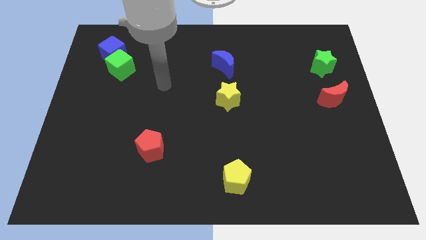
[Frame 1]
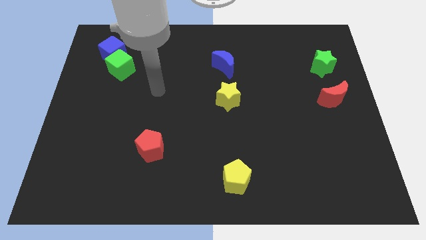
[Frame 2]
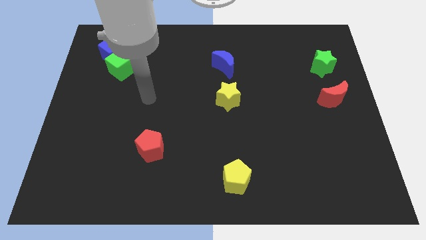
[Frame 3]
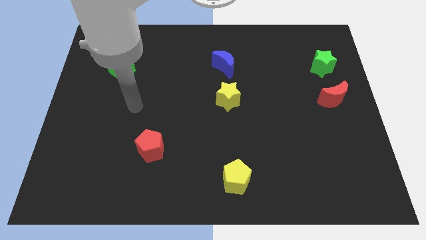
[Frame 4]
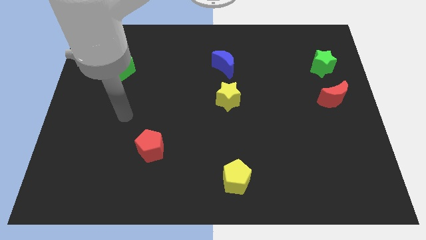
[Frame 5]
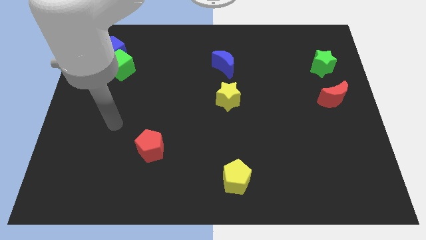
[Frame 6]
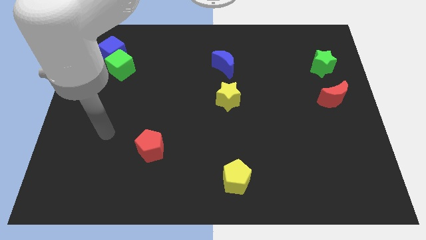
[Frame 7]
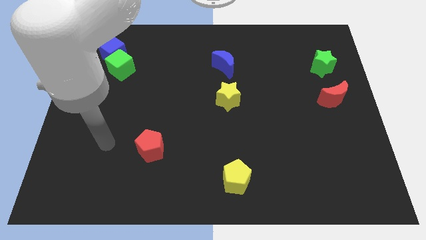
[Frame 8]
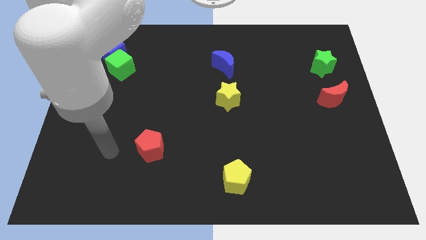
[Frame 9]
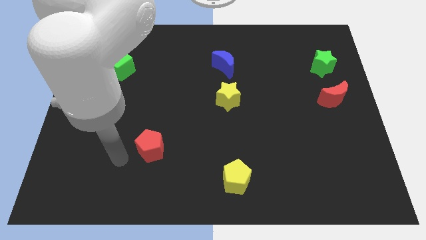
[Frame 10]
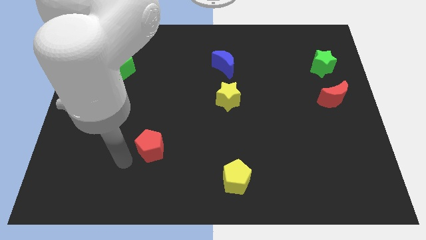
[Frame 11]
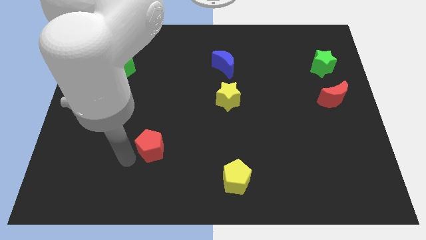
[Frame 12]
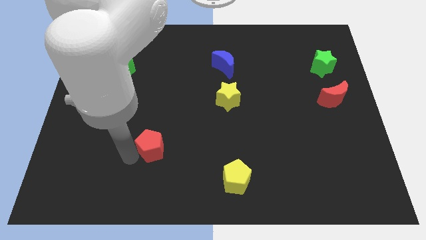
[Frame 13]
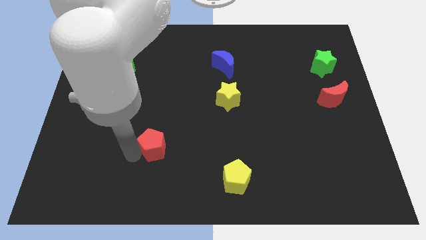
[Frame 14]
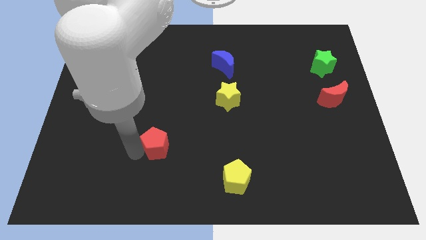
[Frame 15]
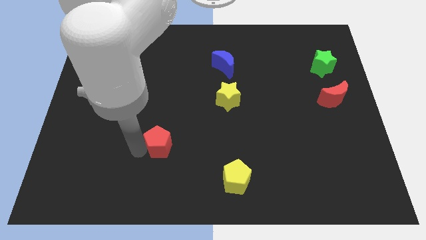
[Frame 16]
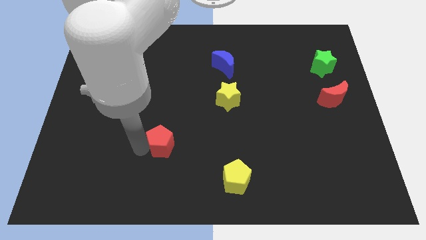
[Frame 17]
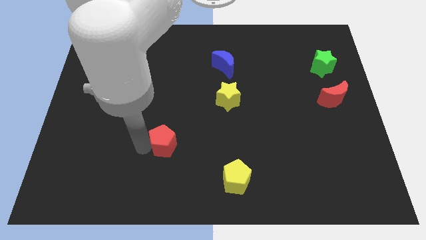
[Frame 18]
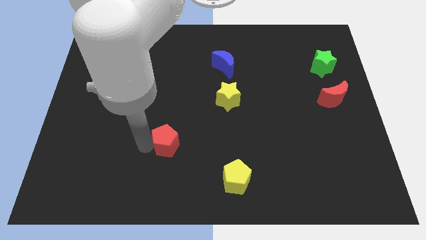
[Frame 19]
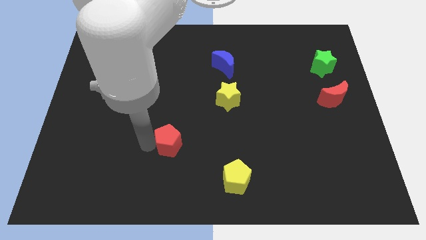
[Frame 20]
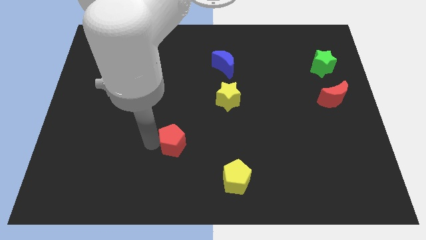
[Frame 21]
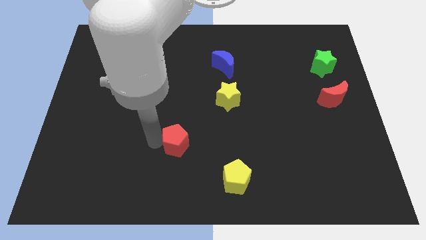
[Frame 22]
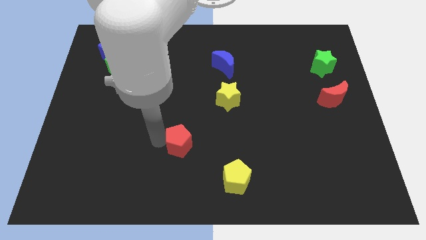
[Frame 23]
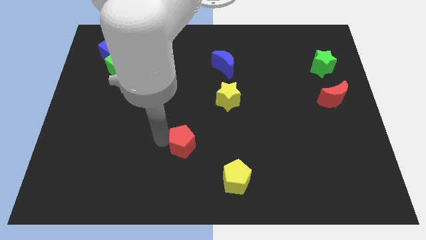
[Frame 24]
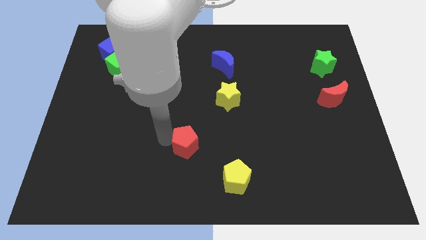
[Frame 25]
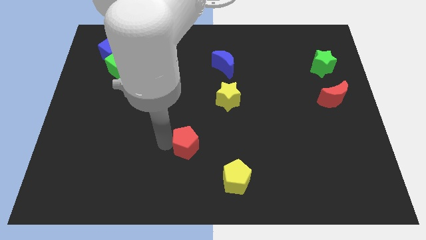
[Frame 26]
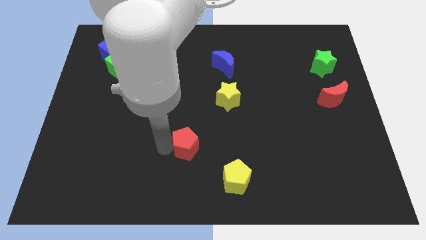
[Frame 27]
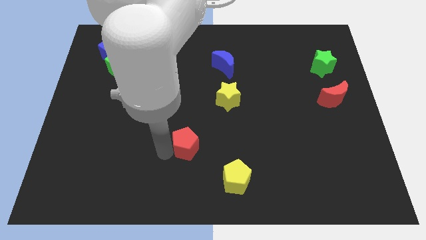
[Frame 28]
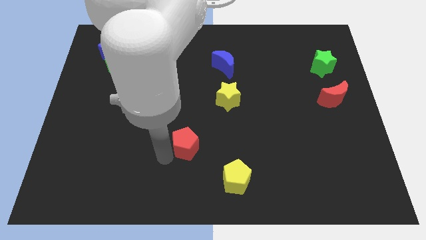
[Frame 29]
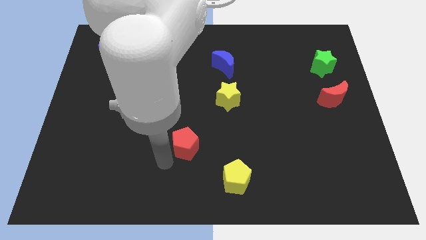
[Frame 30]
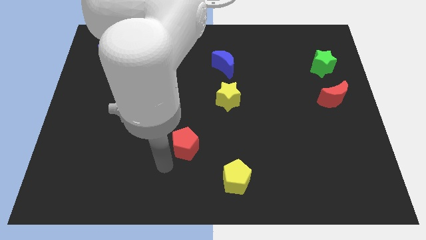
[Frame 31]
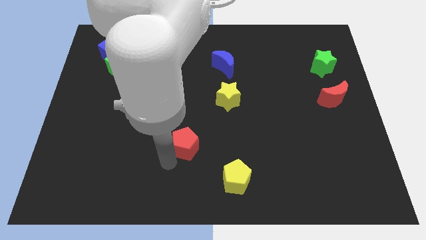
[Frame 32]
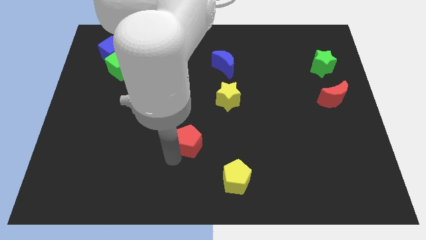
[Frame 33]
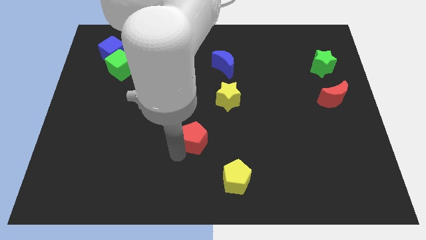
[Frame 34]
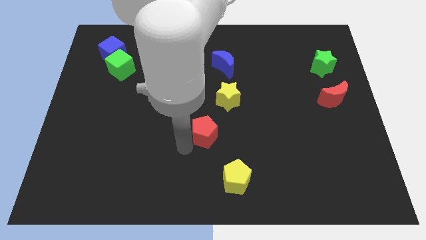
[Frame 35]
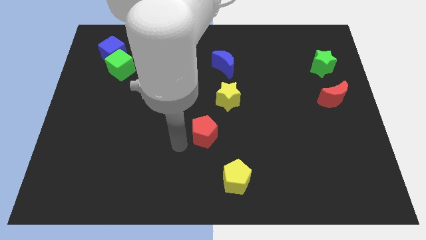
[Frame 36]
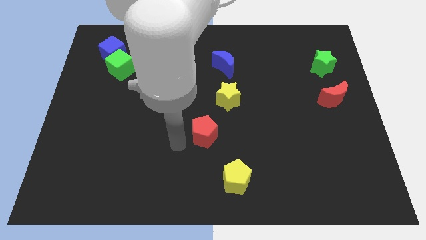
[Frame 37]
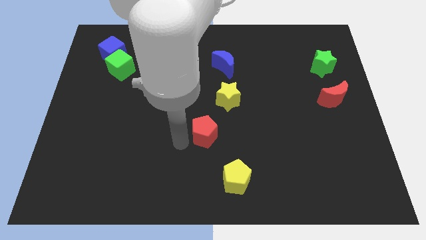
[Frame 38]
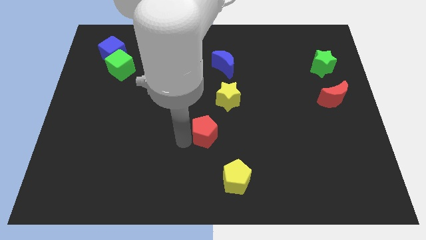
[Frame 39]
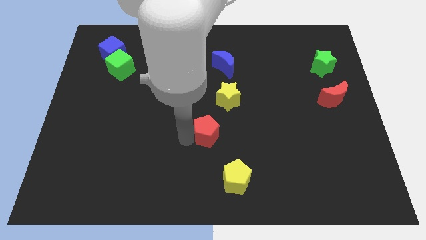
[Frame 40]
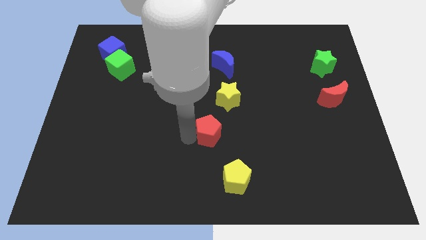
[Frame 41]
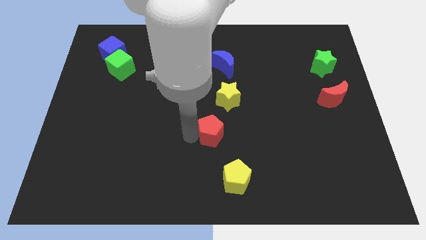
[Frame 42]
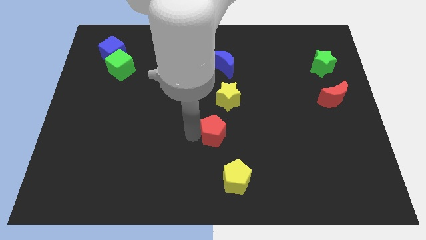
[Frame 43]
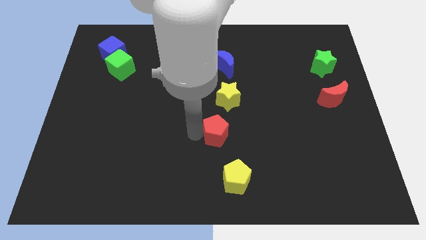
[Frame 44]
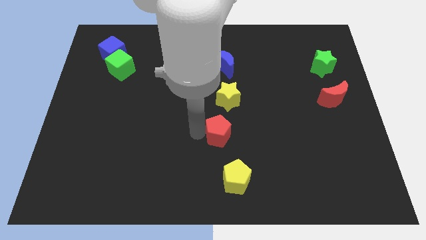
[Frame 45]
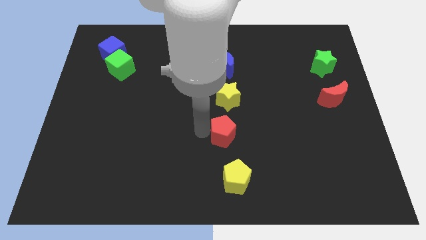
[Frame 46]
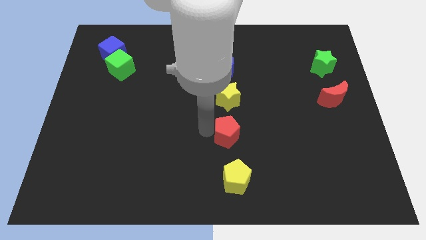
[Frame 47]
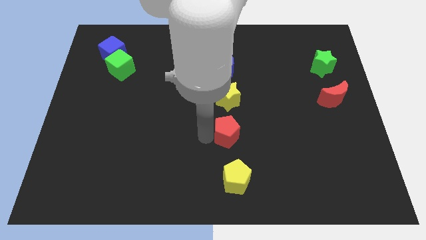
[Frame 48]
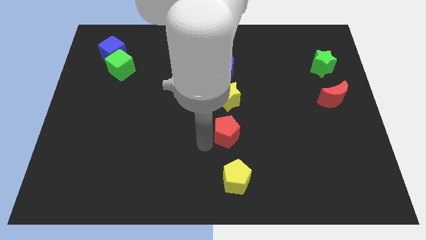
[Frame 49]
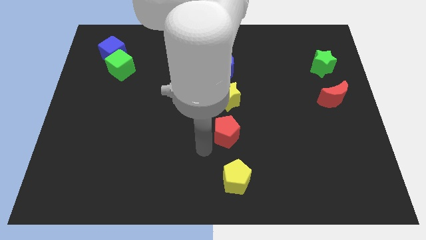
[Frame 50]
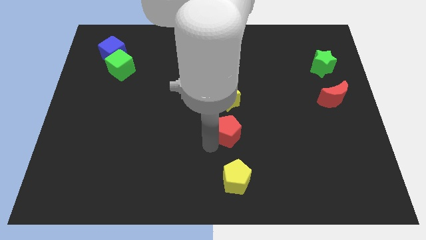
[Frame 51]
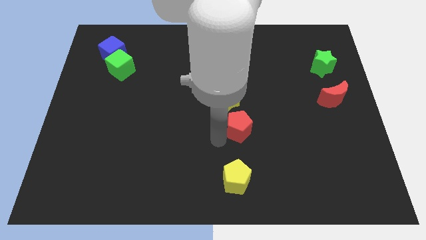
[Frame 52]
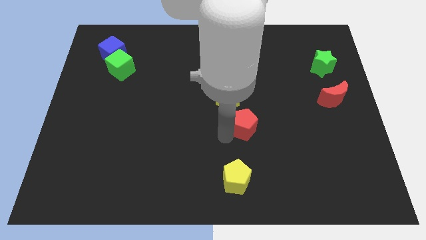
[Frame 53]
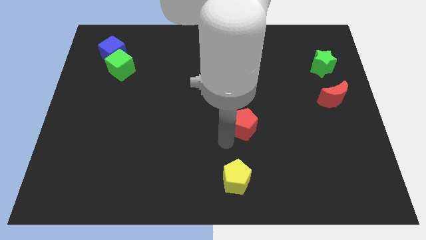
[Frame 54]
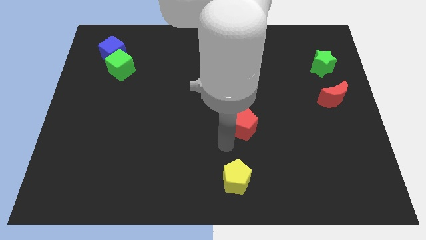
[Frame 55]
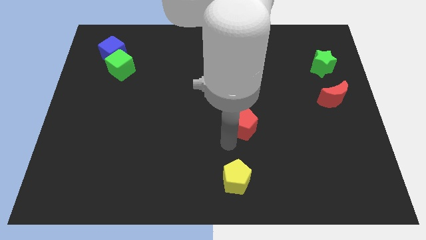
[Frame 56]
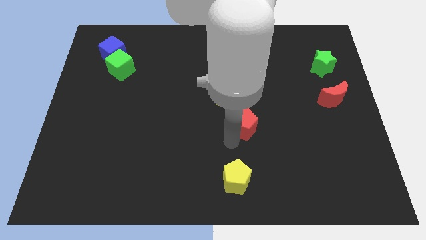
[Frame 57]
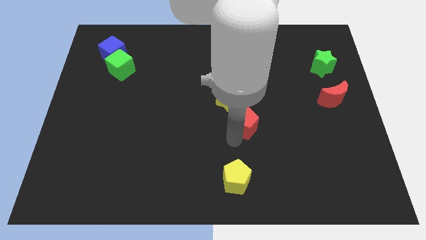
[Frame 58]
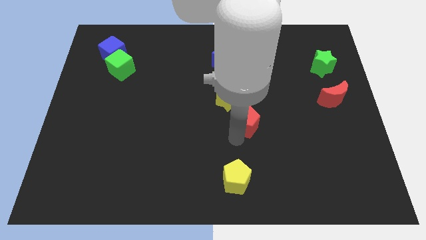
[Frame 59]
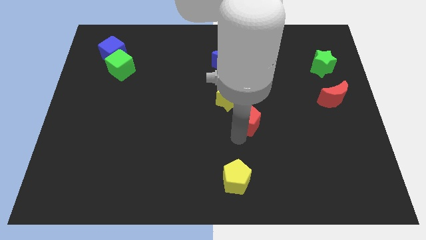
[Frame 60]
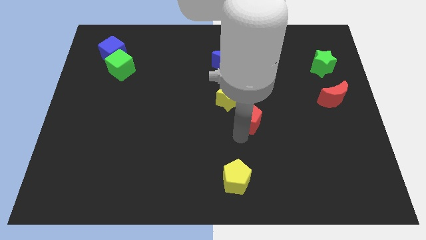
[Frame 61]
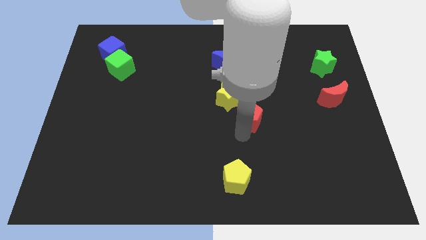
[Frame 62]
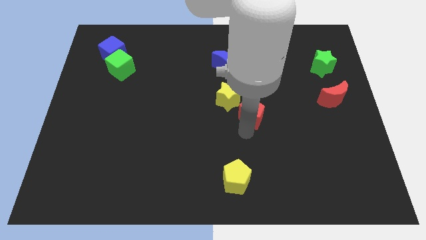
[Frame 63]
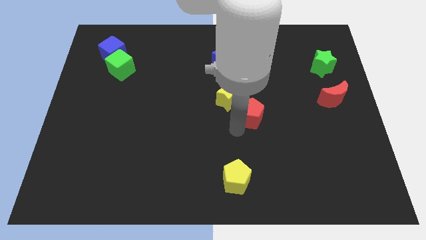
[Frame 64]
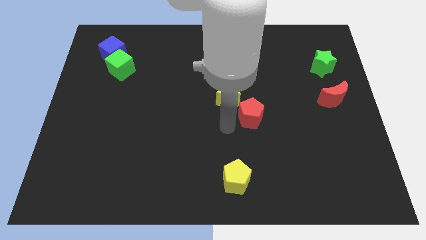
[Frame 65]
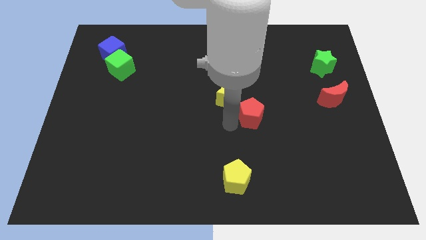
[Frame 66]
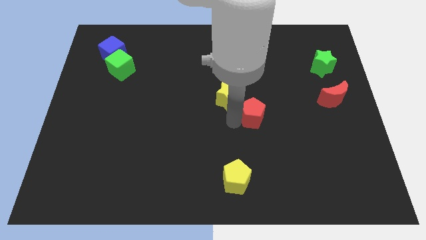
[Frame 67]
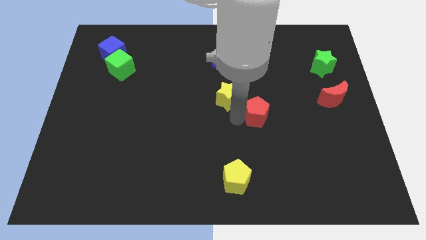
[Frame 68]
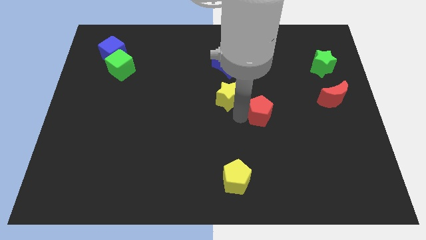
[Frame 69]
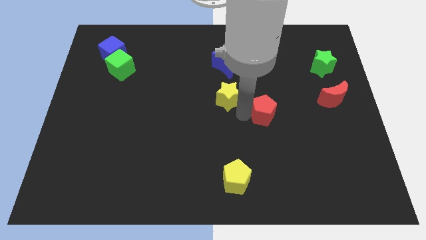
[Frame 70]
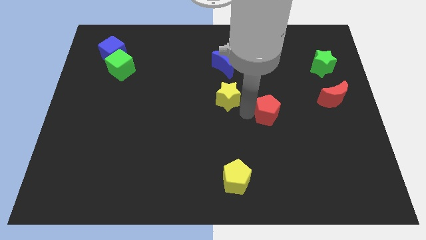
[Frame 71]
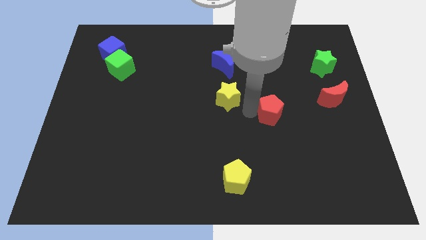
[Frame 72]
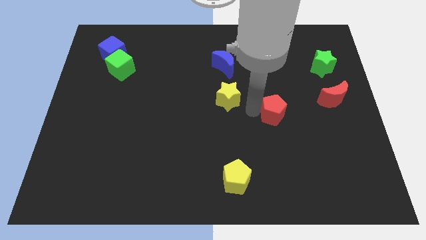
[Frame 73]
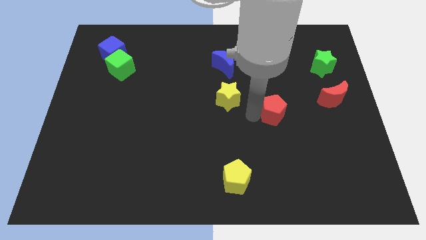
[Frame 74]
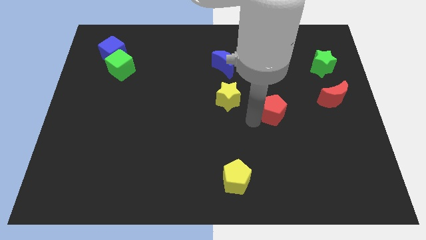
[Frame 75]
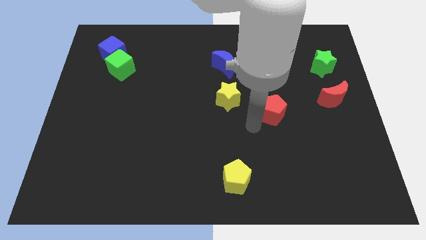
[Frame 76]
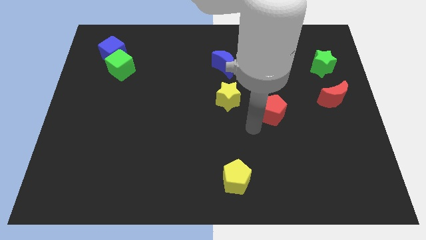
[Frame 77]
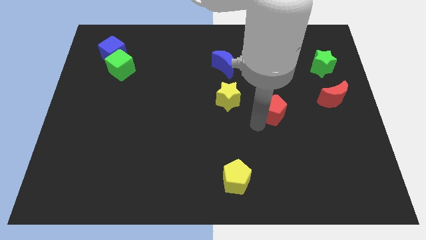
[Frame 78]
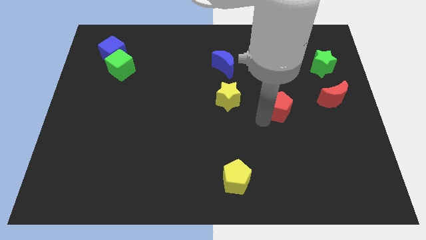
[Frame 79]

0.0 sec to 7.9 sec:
move the red pentagon to the left side of the red moon
